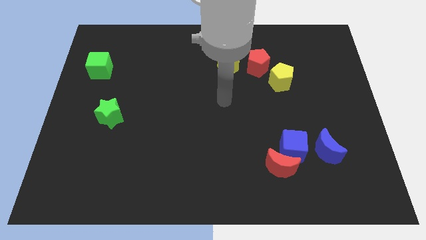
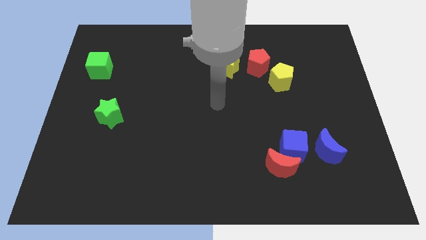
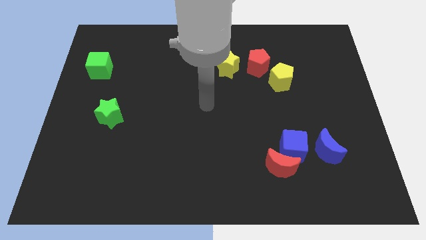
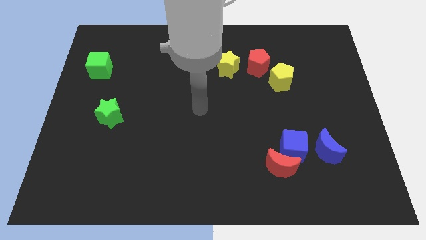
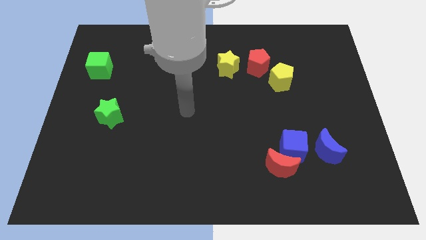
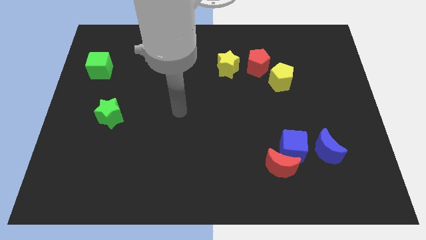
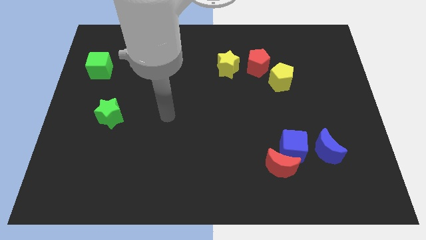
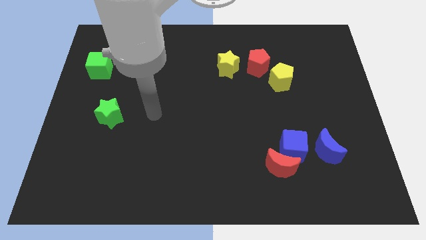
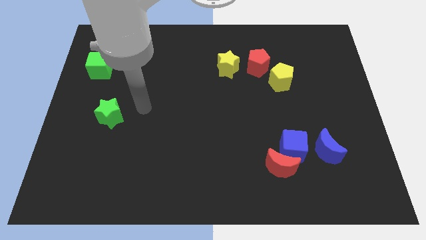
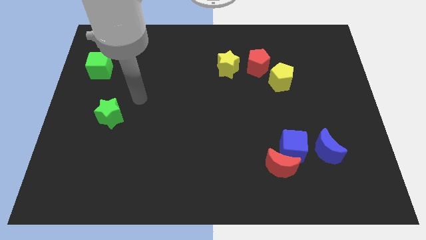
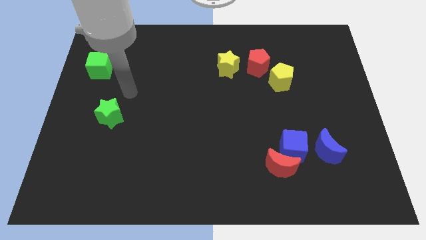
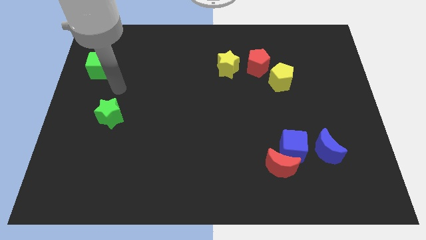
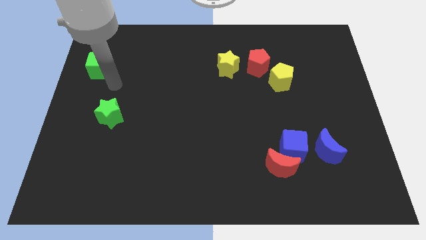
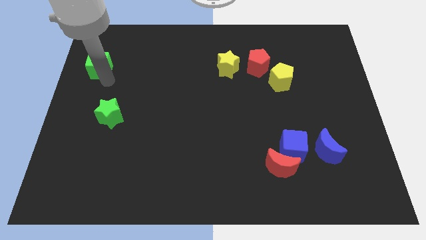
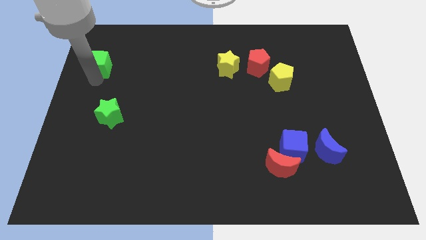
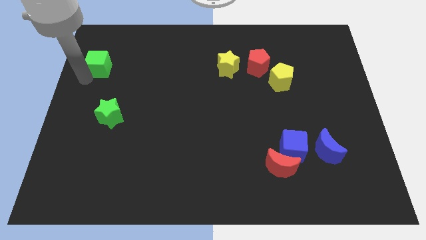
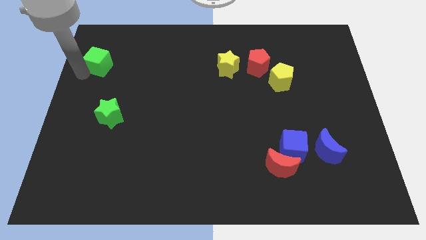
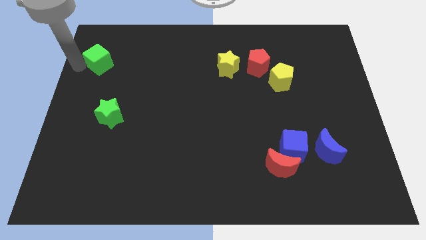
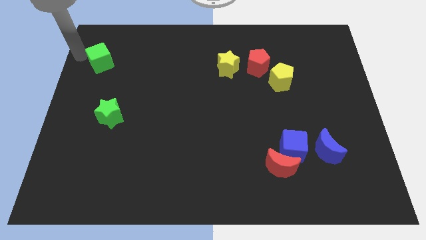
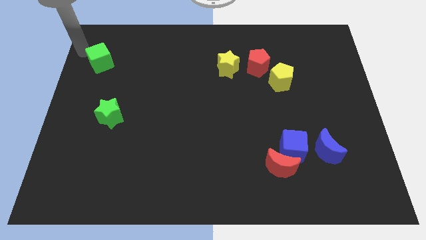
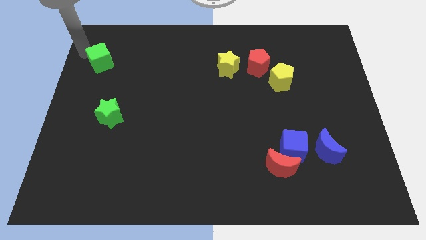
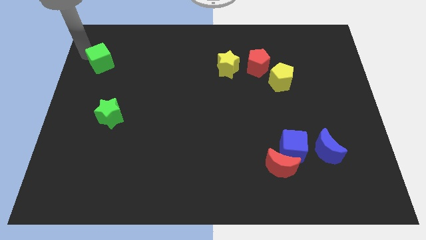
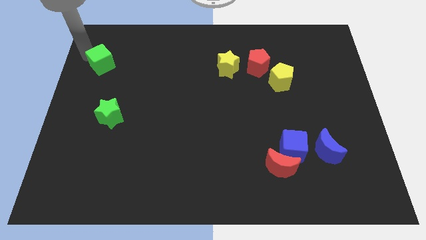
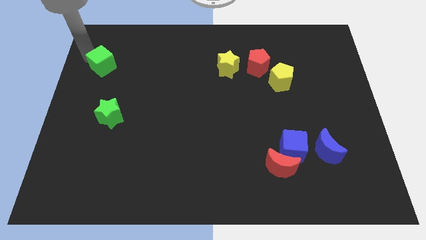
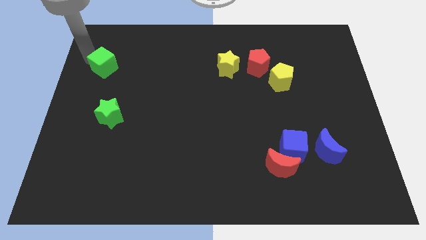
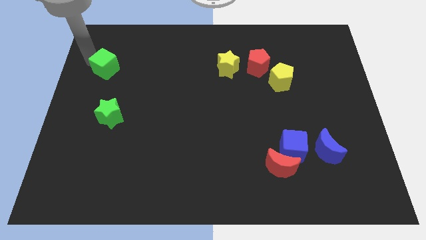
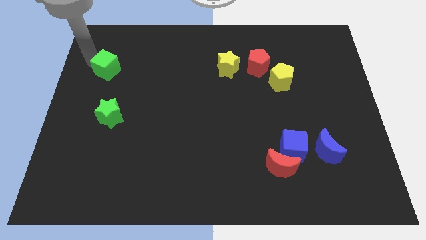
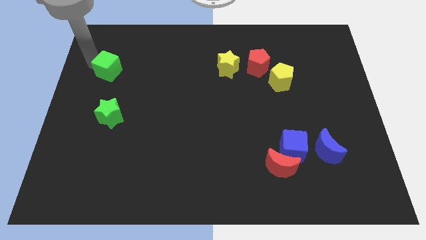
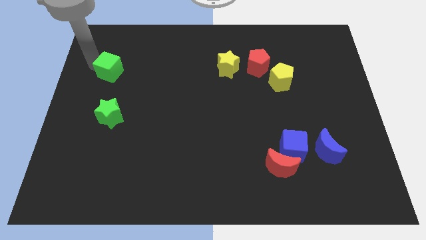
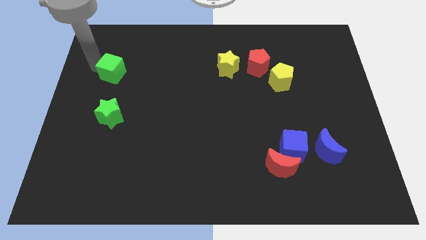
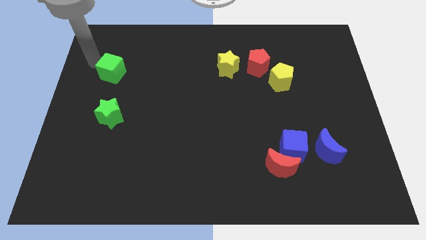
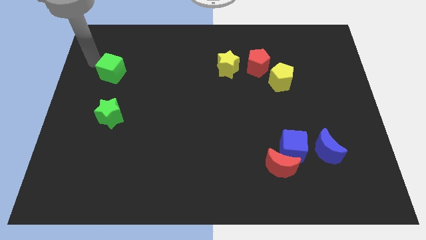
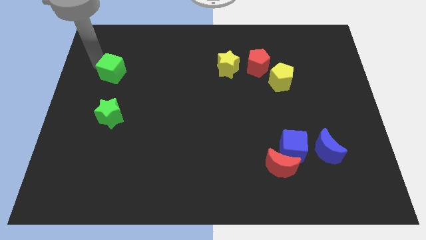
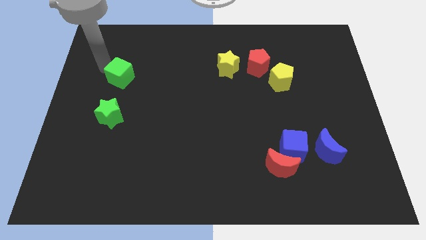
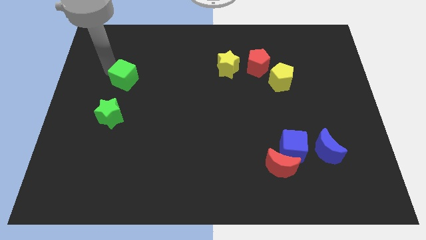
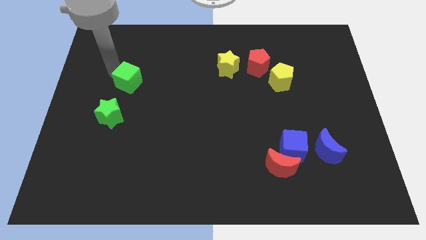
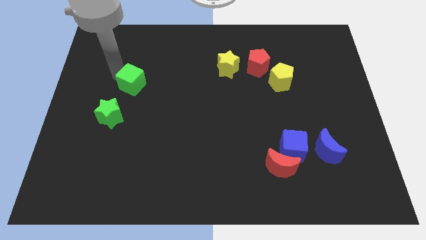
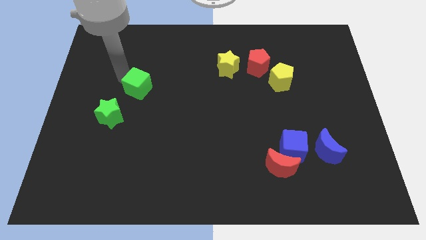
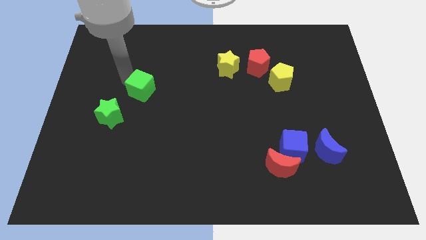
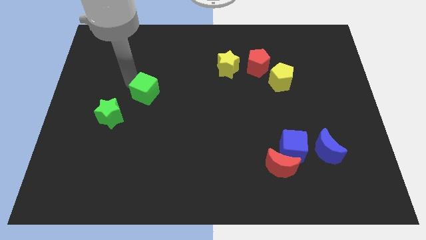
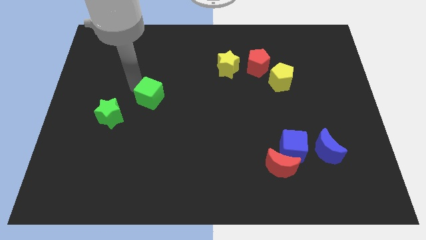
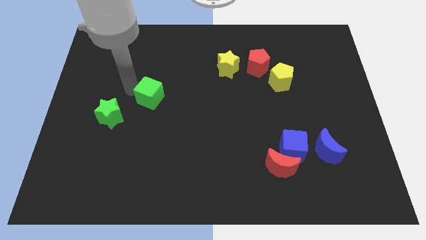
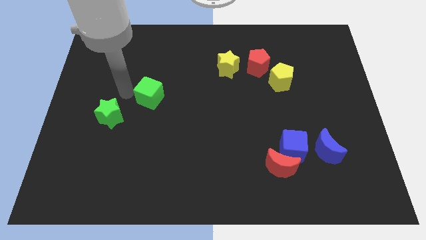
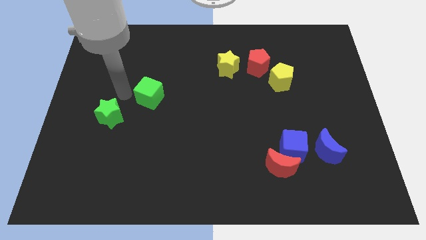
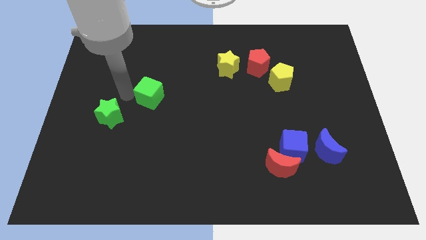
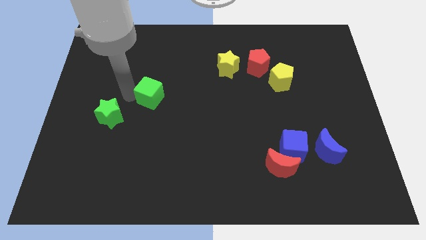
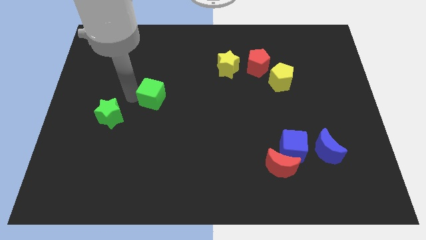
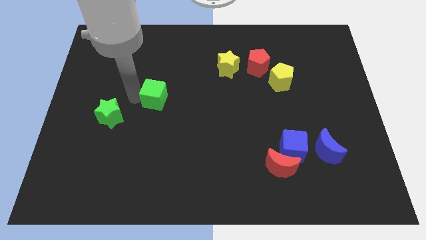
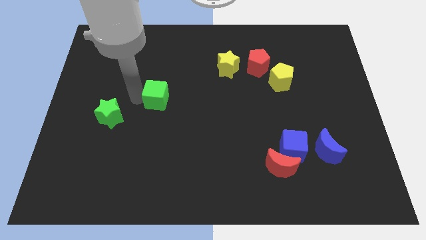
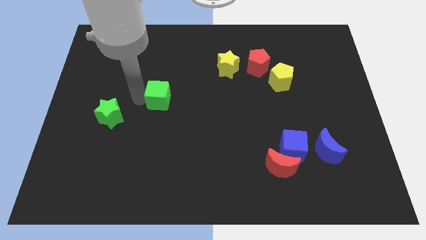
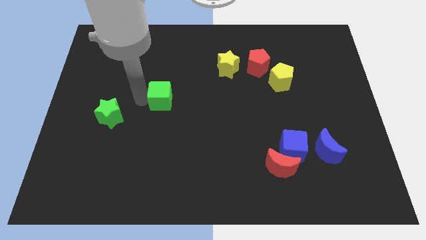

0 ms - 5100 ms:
move the green cube to the center

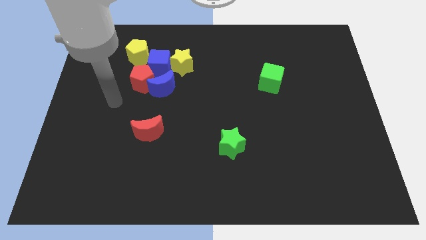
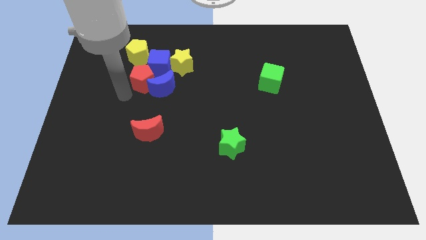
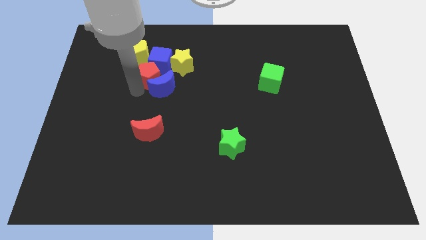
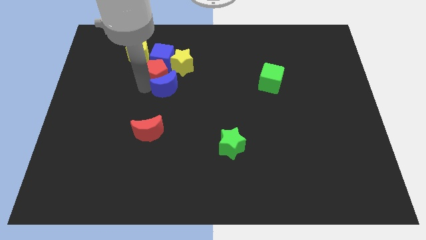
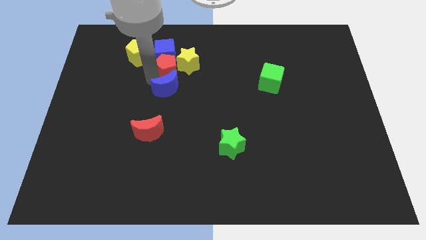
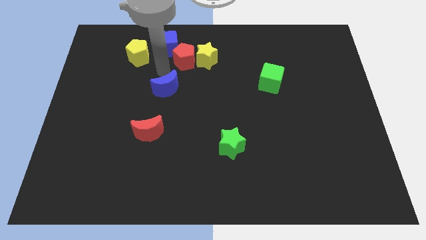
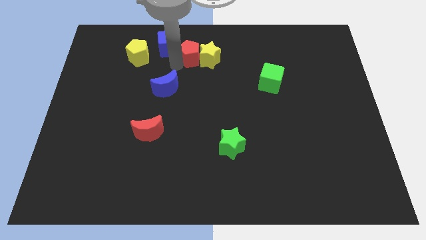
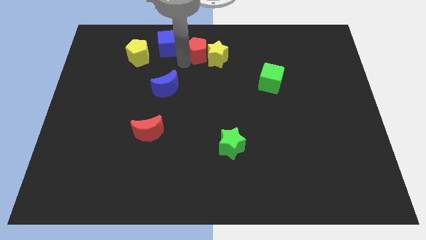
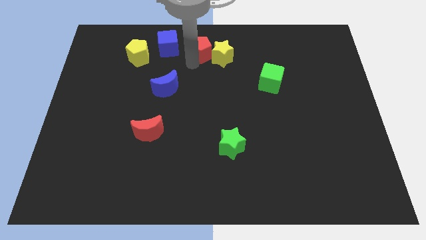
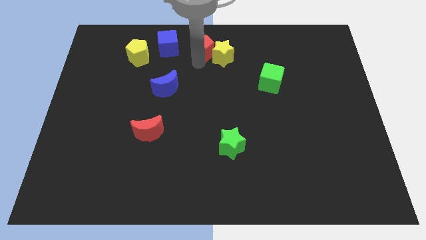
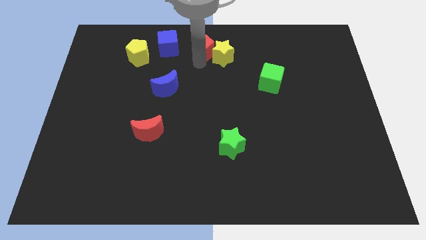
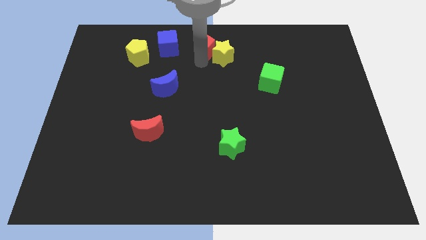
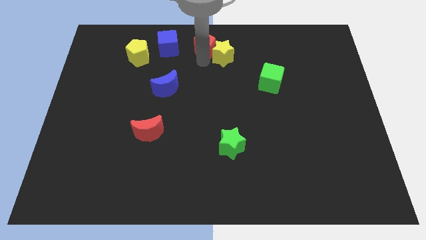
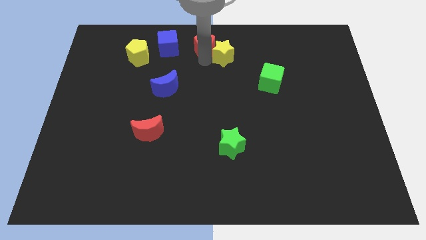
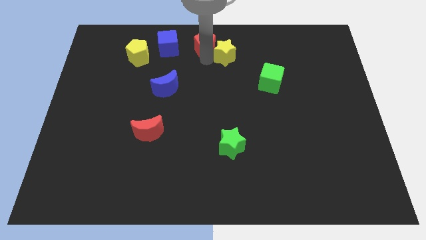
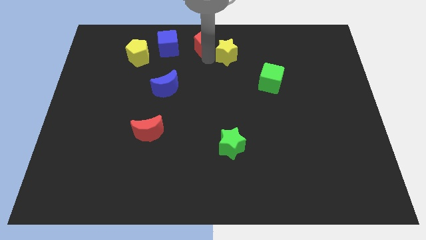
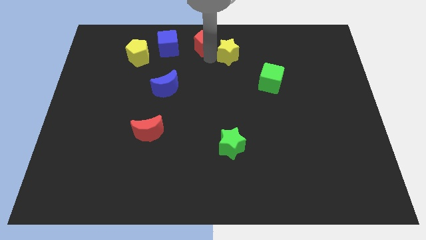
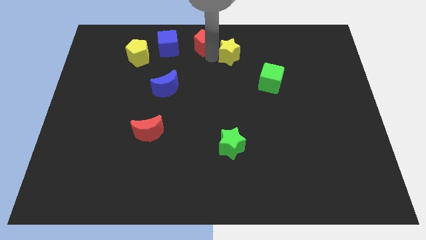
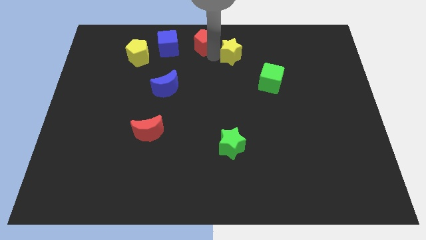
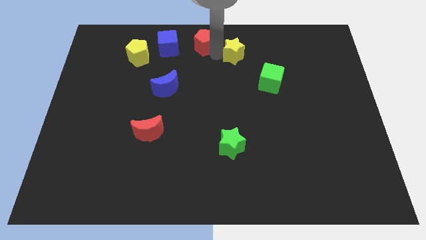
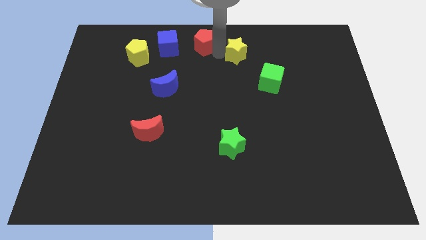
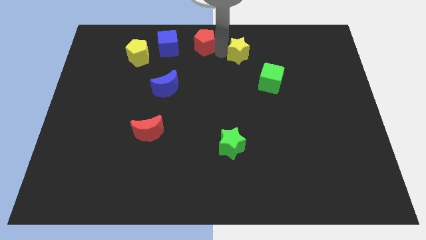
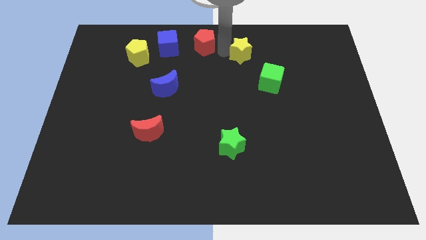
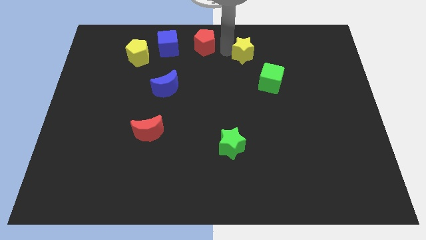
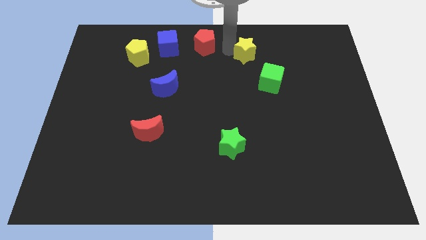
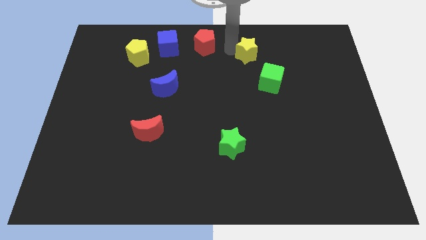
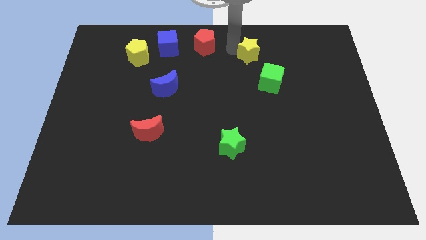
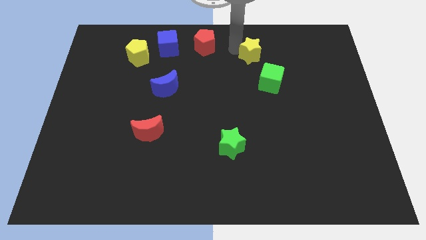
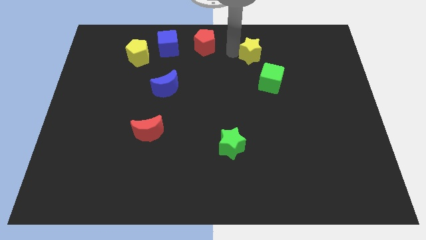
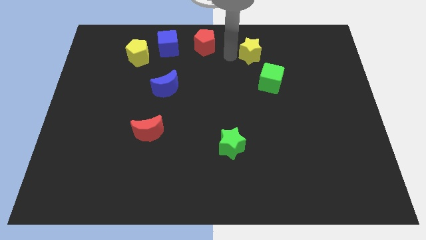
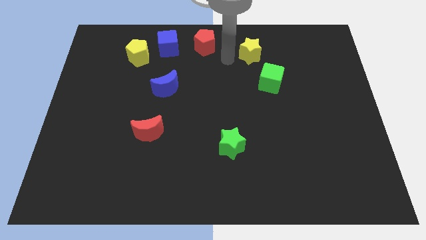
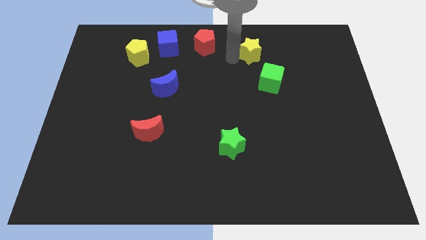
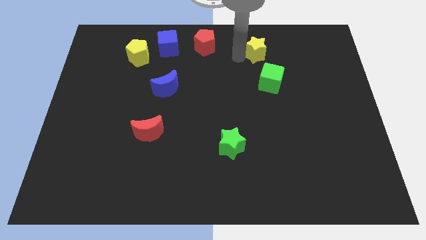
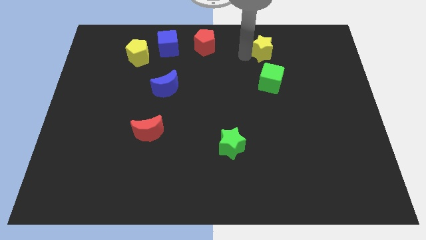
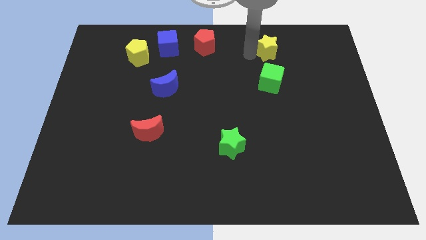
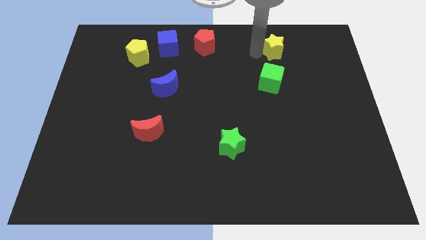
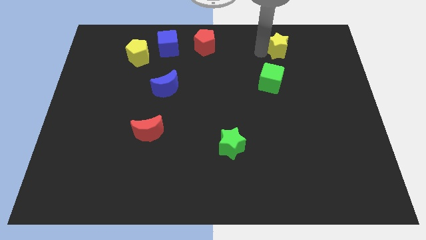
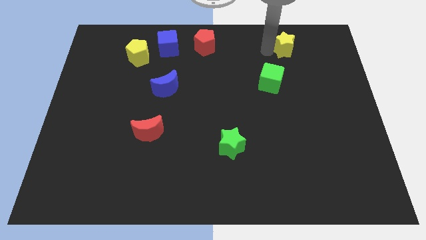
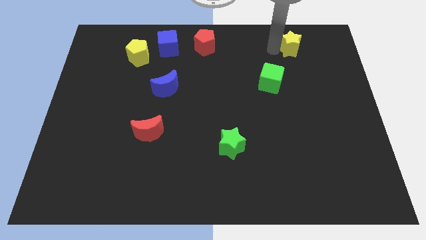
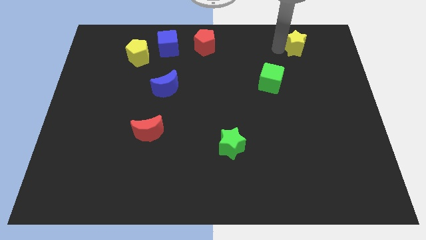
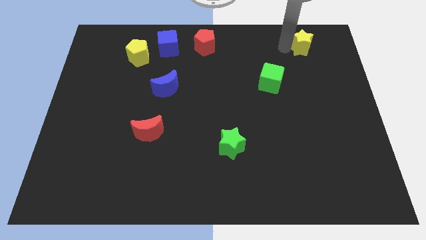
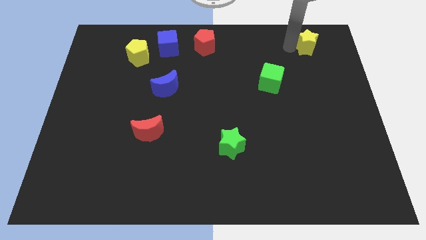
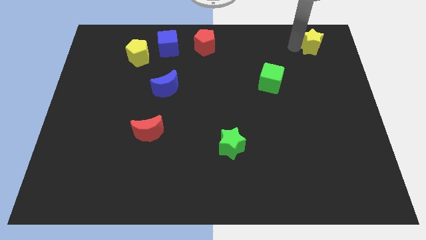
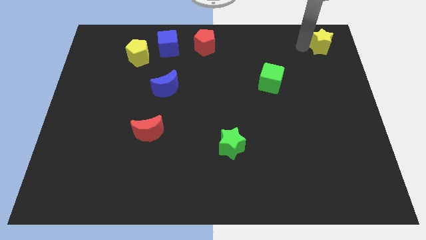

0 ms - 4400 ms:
slide the yellow star to the top right
